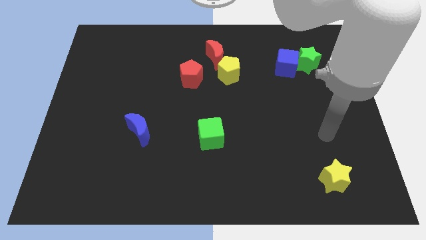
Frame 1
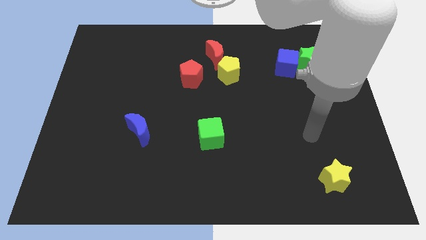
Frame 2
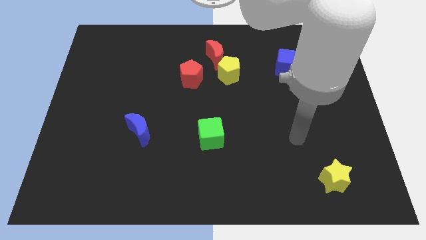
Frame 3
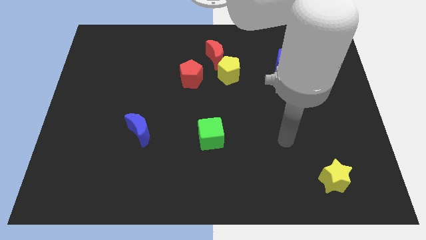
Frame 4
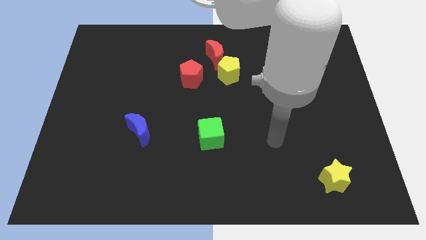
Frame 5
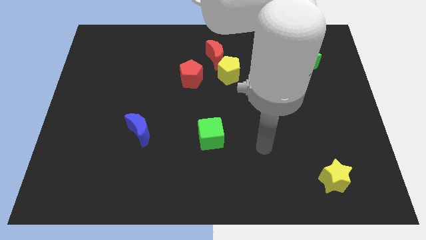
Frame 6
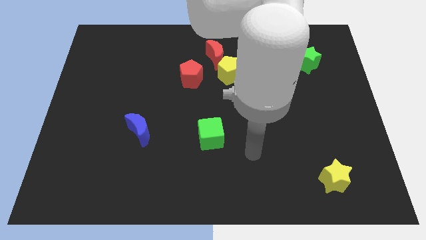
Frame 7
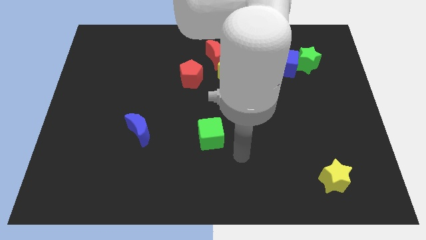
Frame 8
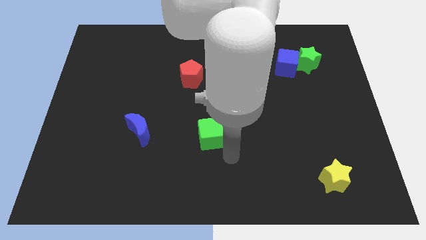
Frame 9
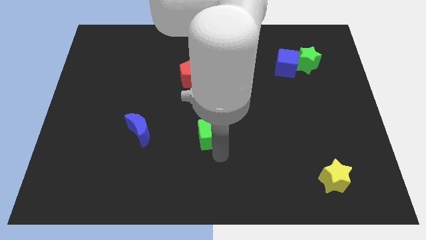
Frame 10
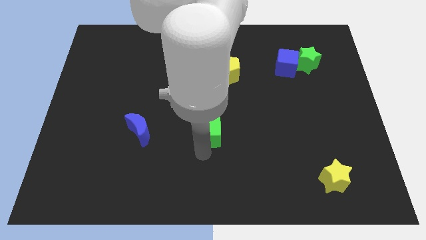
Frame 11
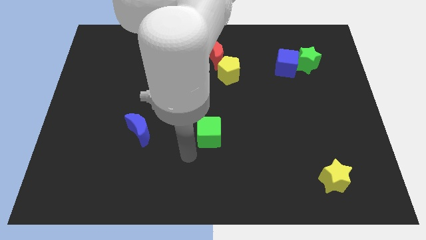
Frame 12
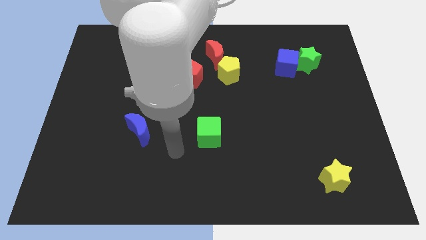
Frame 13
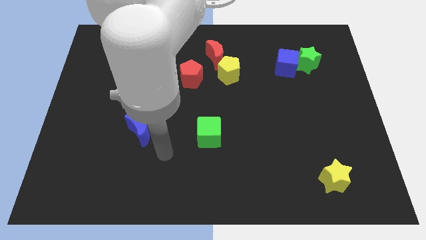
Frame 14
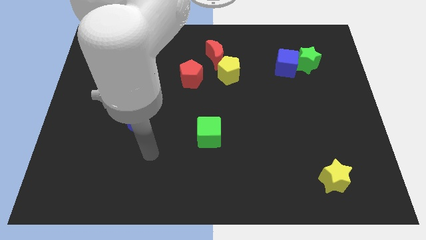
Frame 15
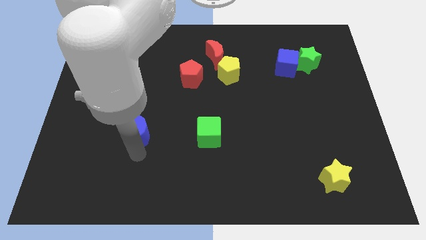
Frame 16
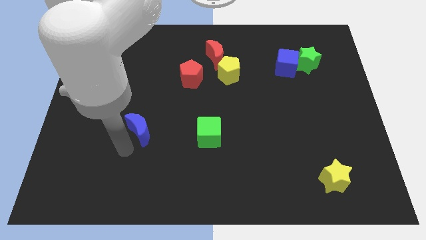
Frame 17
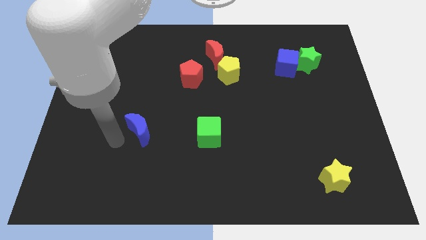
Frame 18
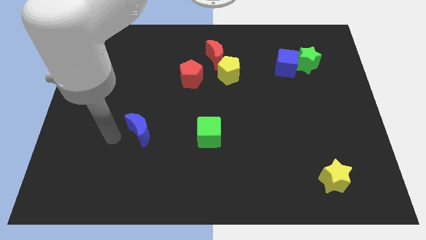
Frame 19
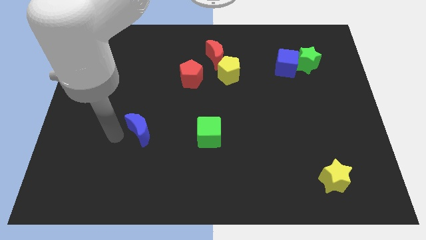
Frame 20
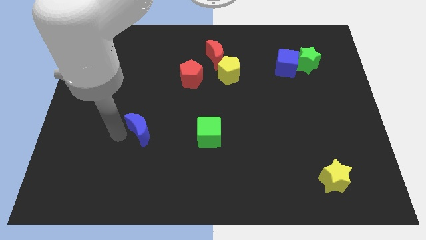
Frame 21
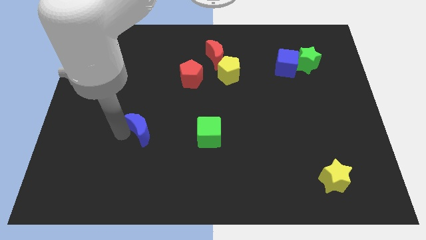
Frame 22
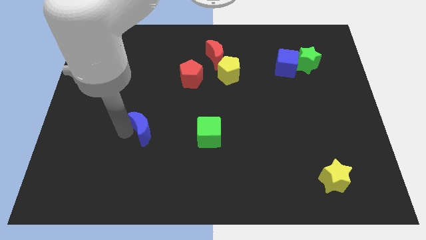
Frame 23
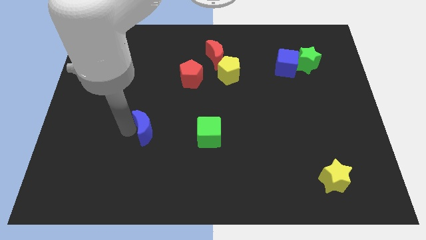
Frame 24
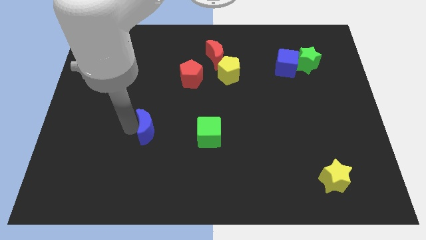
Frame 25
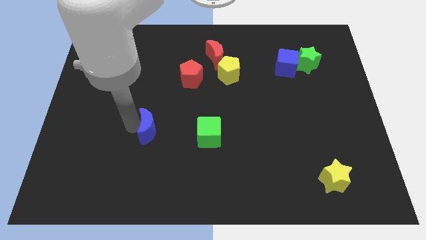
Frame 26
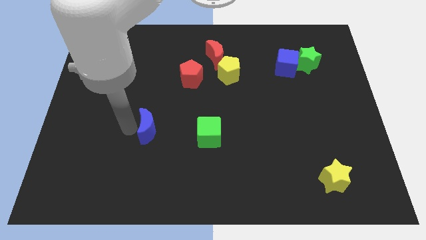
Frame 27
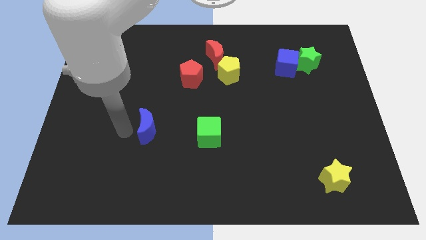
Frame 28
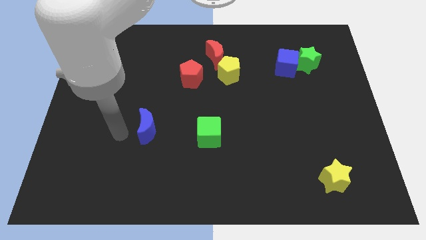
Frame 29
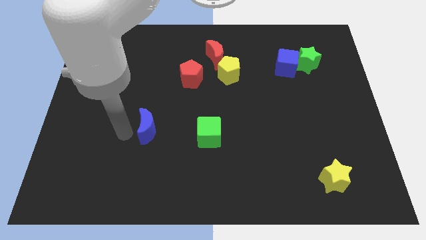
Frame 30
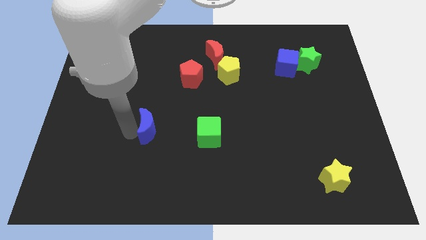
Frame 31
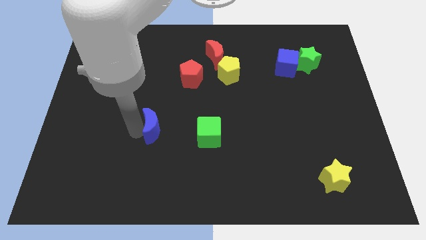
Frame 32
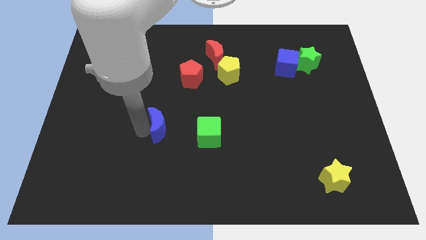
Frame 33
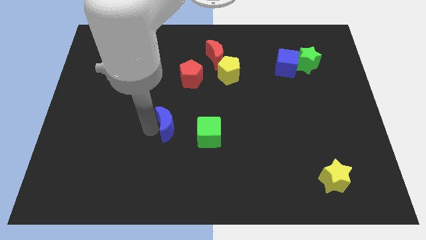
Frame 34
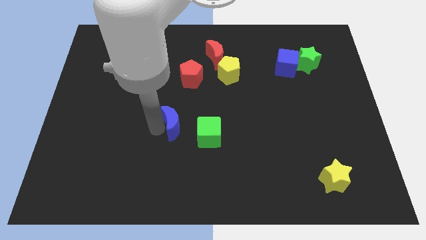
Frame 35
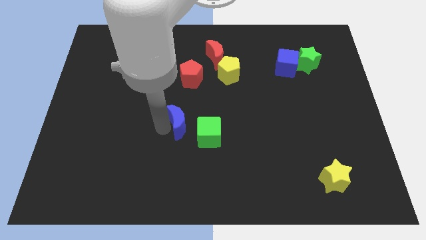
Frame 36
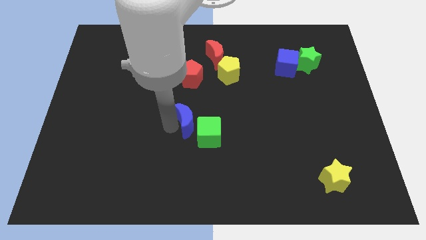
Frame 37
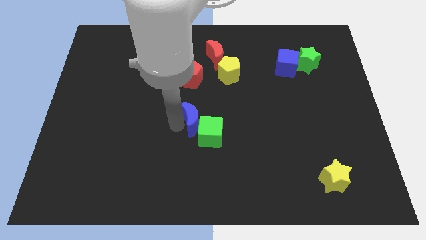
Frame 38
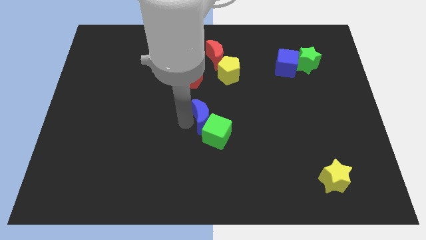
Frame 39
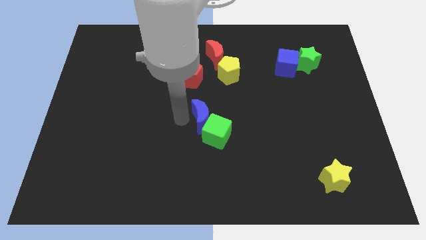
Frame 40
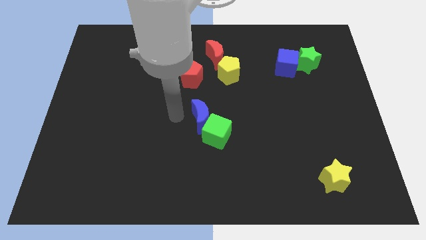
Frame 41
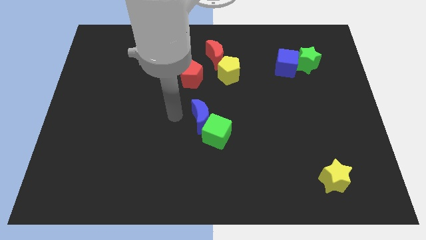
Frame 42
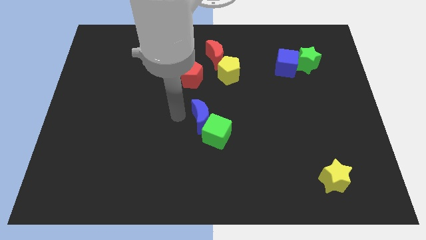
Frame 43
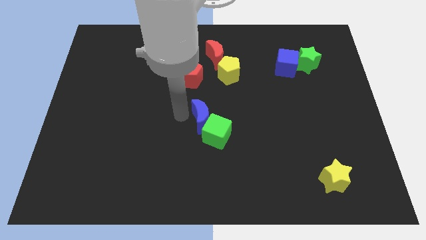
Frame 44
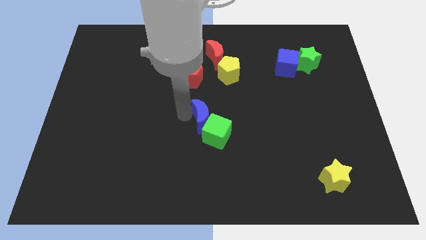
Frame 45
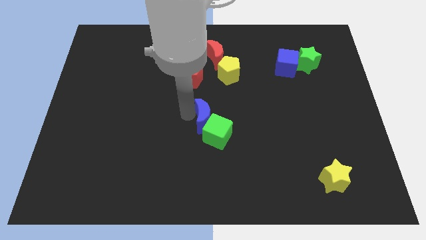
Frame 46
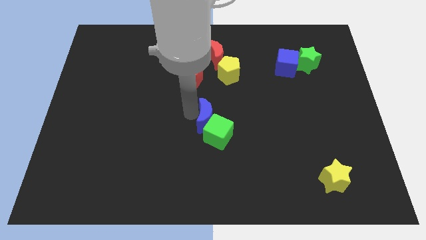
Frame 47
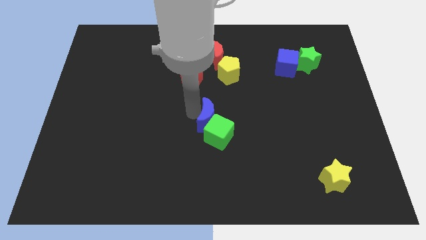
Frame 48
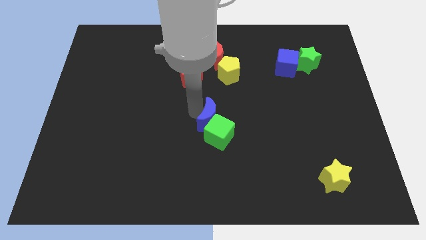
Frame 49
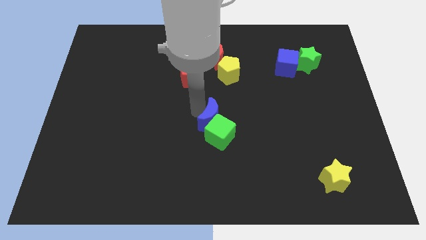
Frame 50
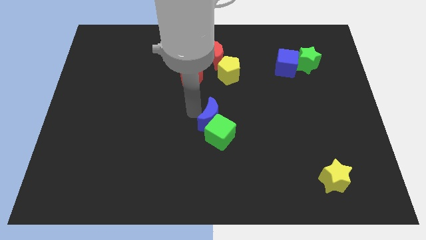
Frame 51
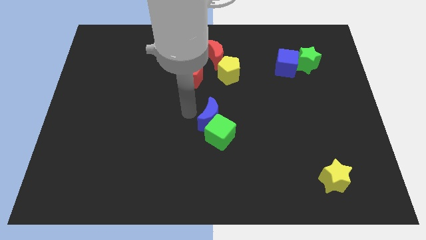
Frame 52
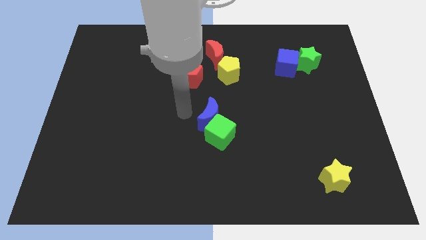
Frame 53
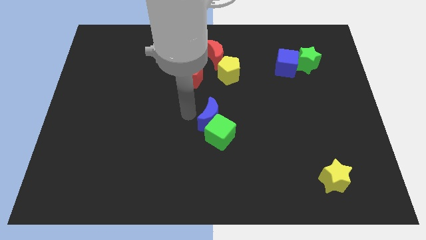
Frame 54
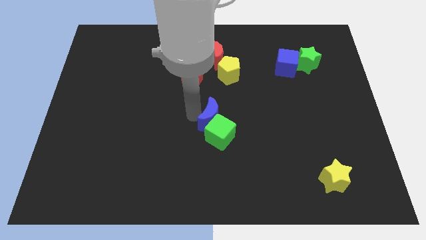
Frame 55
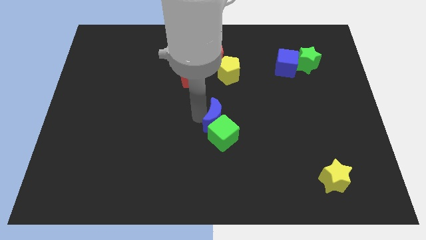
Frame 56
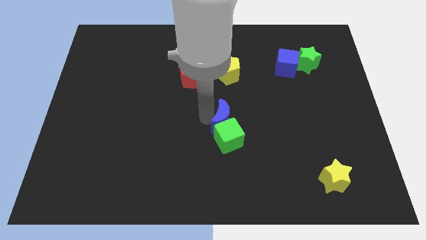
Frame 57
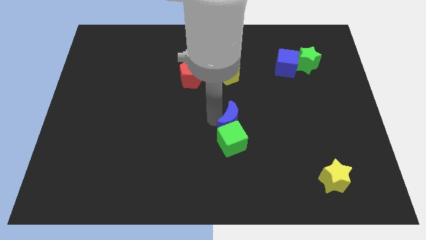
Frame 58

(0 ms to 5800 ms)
push the blue moon to the right

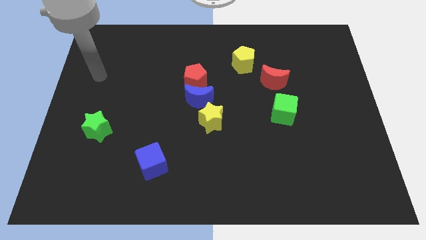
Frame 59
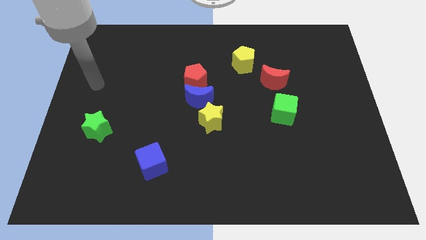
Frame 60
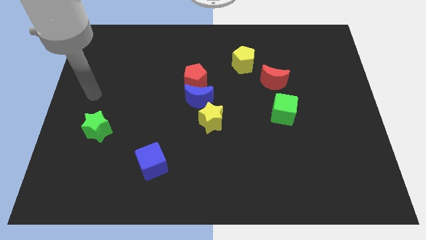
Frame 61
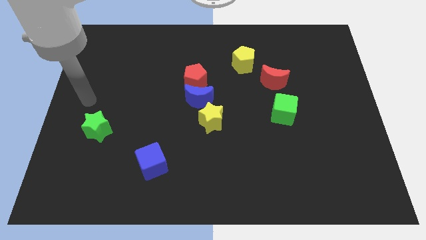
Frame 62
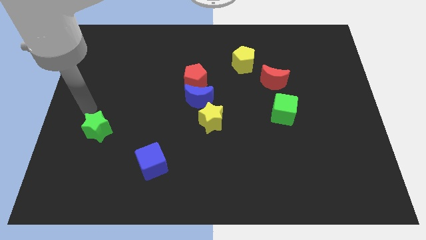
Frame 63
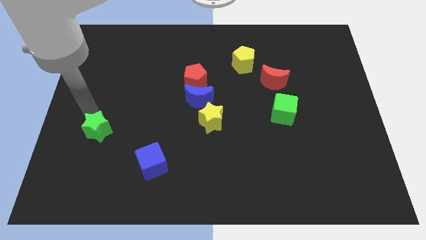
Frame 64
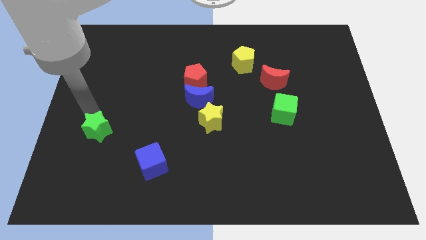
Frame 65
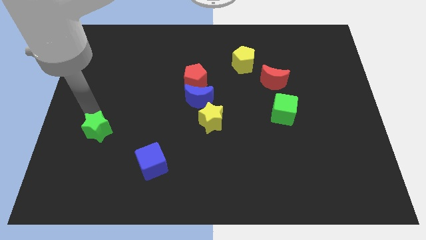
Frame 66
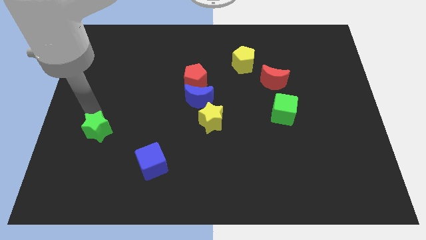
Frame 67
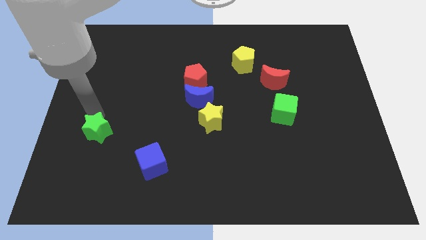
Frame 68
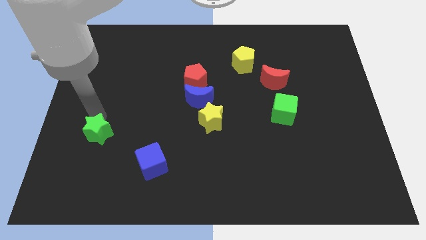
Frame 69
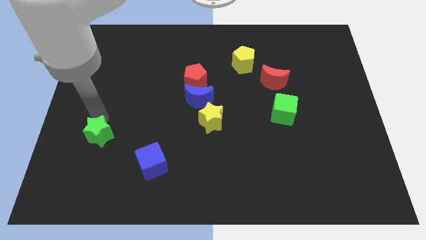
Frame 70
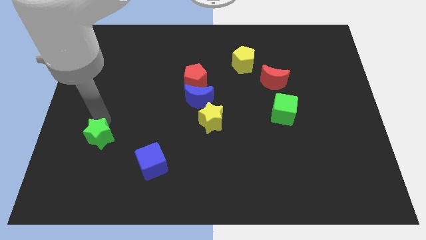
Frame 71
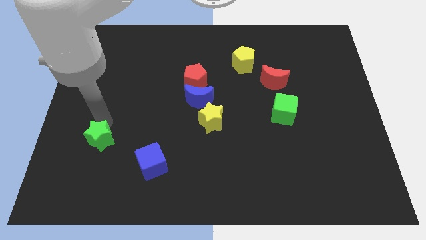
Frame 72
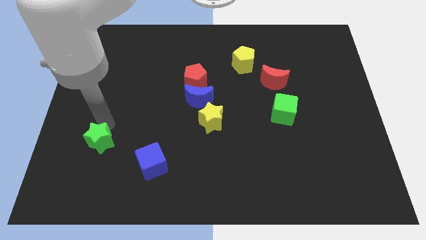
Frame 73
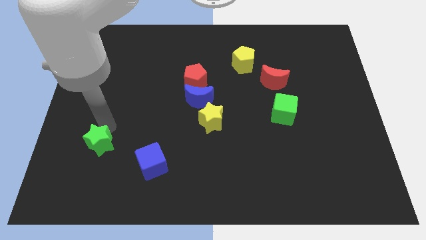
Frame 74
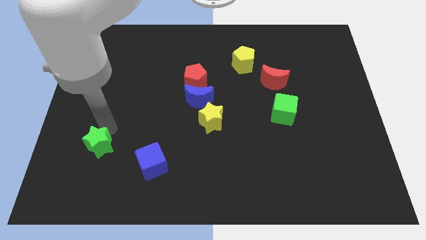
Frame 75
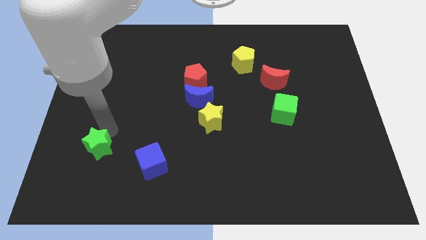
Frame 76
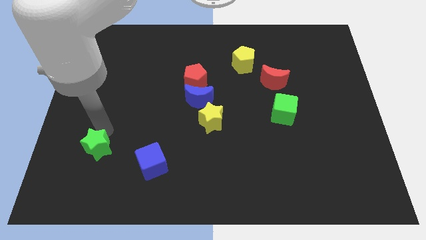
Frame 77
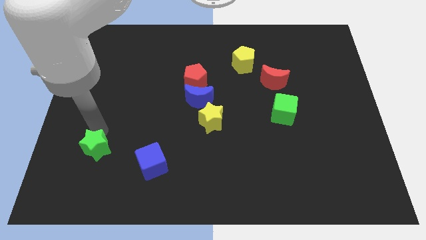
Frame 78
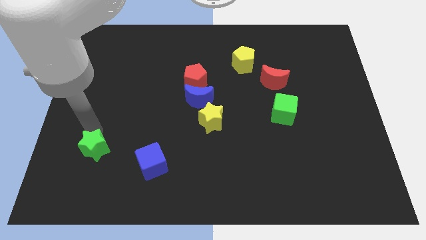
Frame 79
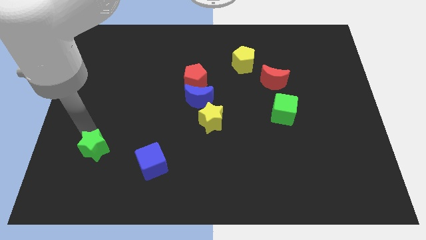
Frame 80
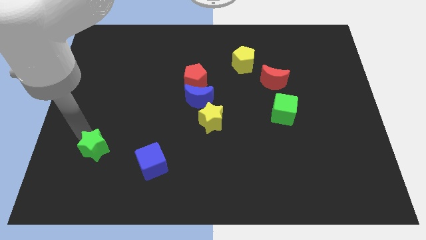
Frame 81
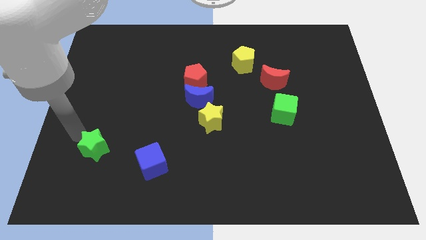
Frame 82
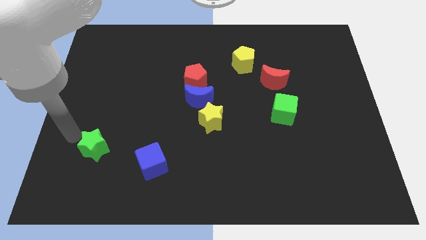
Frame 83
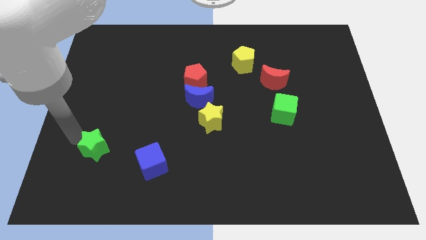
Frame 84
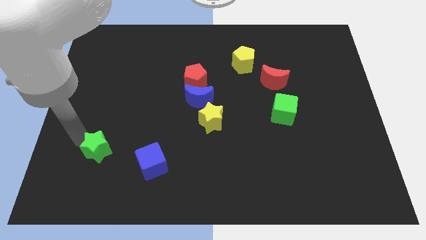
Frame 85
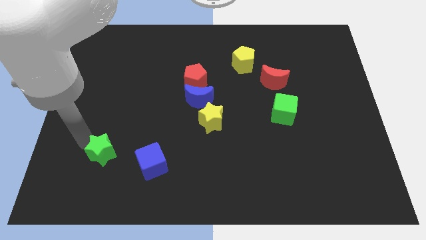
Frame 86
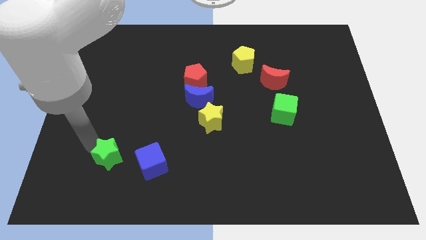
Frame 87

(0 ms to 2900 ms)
slide the green star a bit down and to the right
